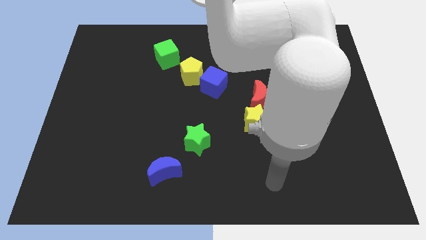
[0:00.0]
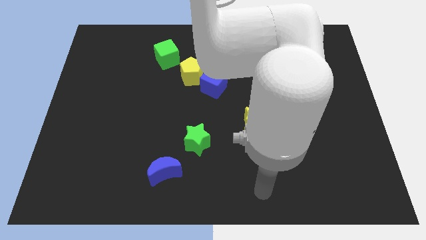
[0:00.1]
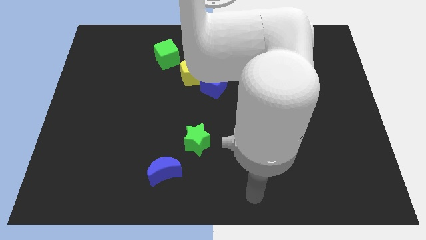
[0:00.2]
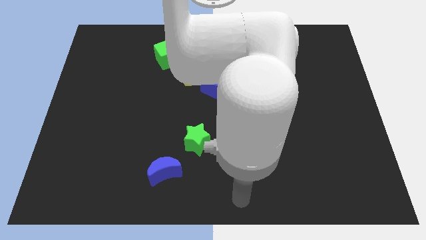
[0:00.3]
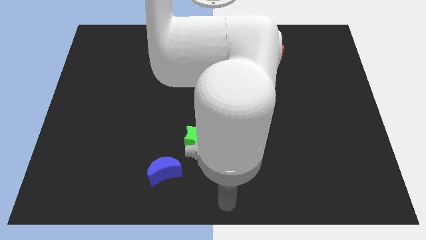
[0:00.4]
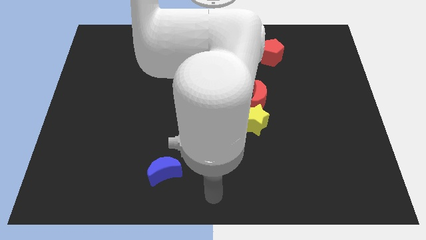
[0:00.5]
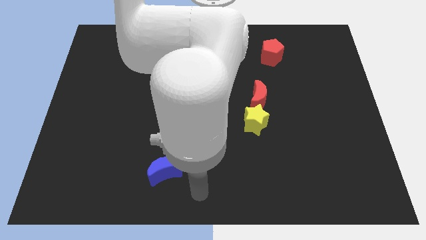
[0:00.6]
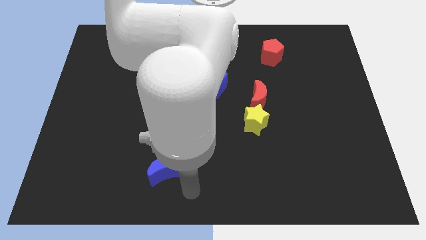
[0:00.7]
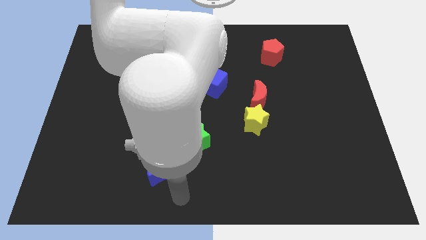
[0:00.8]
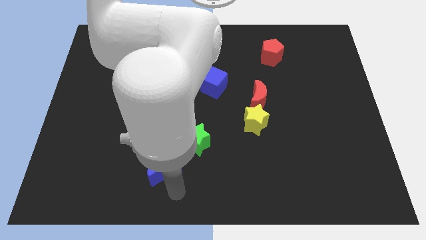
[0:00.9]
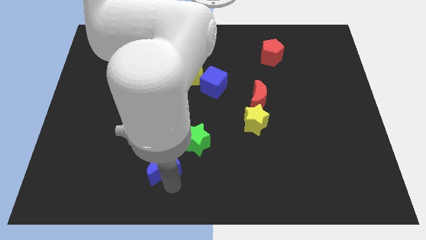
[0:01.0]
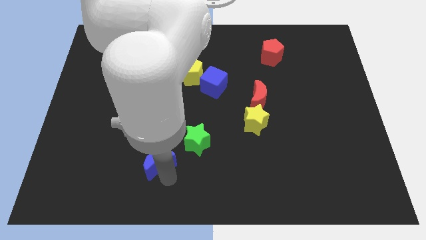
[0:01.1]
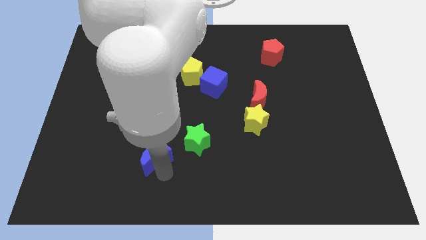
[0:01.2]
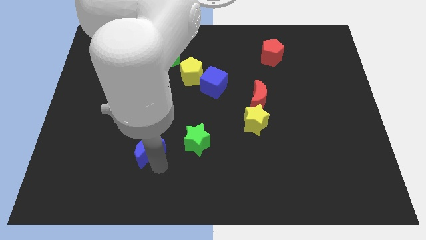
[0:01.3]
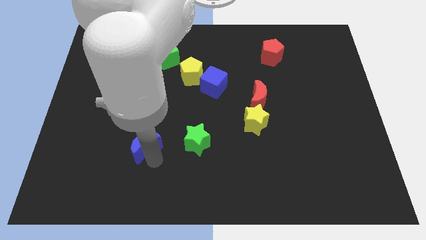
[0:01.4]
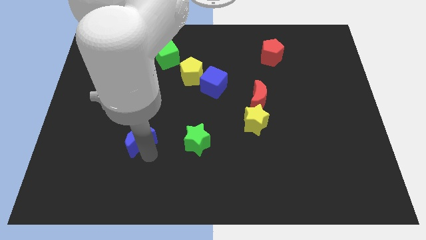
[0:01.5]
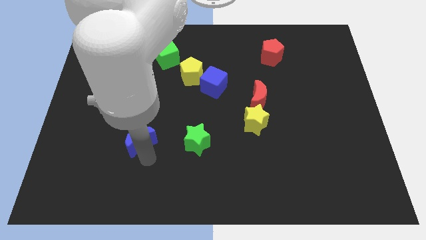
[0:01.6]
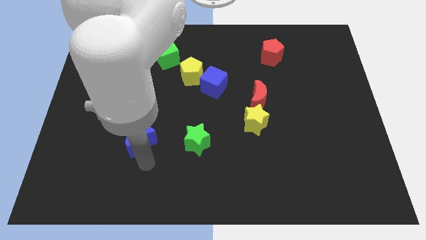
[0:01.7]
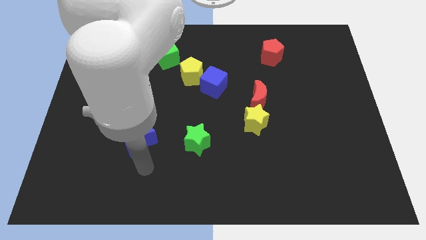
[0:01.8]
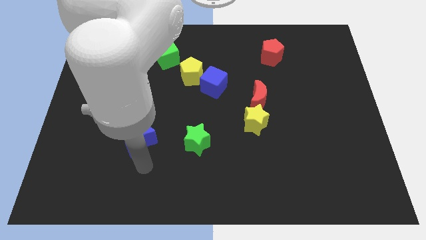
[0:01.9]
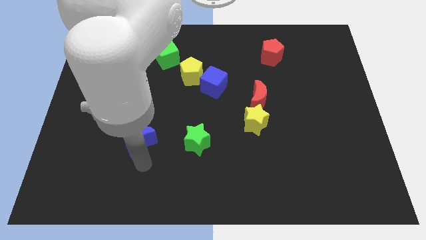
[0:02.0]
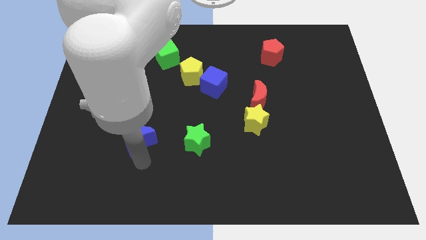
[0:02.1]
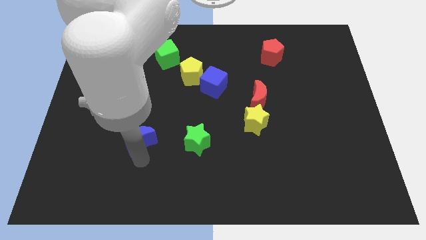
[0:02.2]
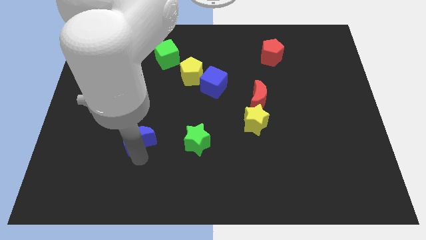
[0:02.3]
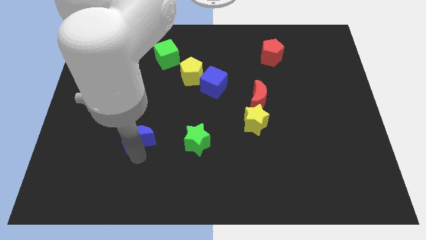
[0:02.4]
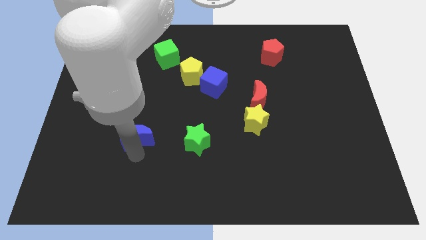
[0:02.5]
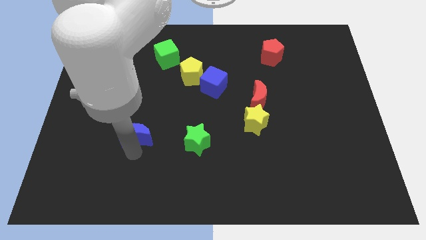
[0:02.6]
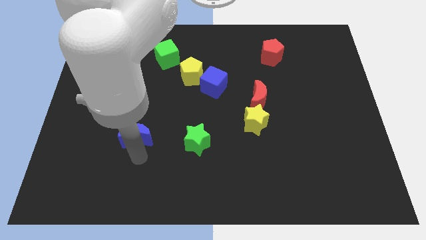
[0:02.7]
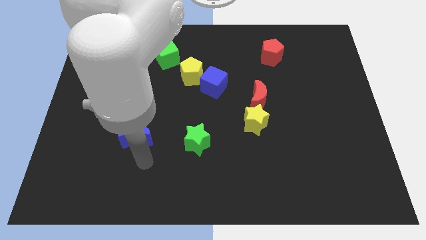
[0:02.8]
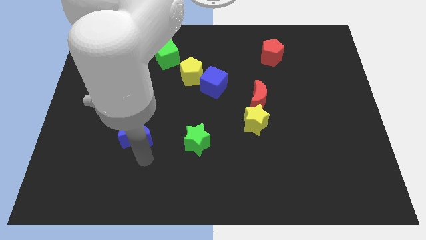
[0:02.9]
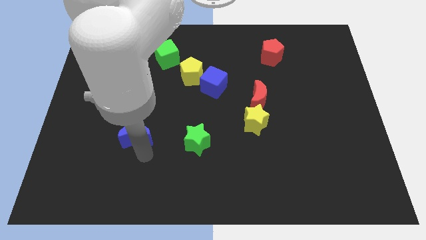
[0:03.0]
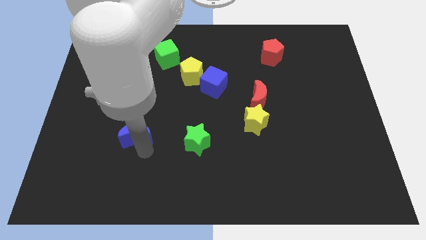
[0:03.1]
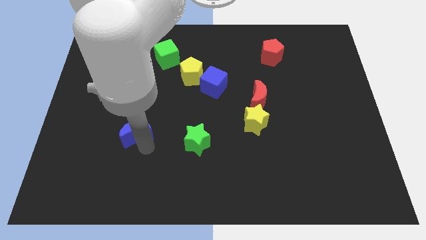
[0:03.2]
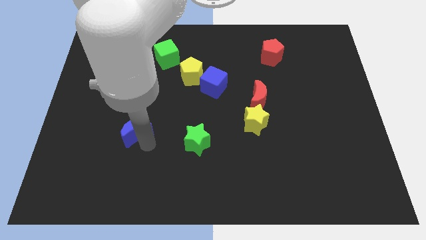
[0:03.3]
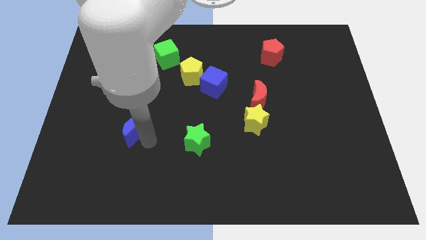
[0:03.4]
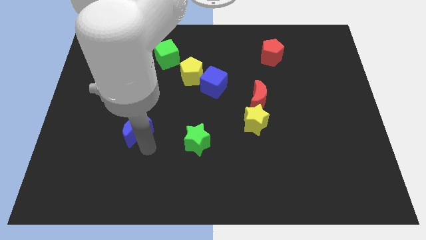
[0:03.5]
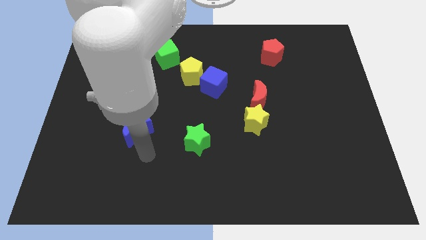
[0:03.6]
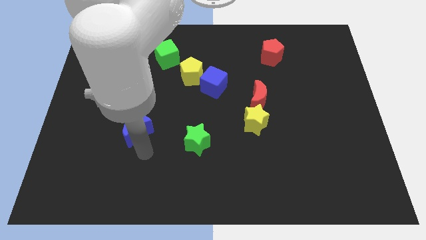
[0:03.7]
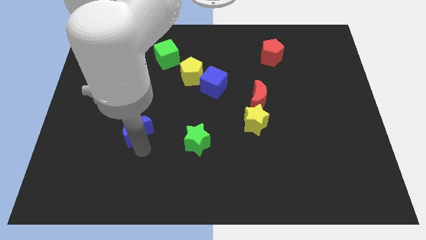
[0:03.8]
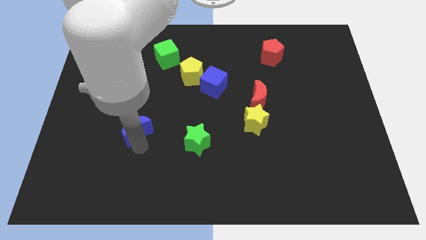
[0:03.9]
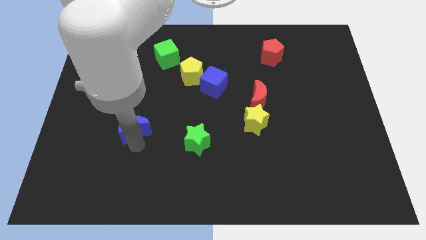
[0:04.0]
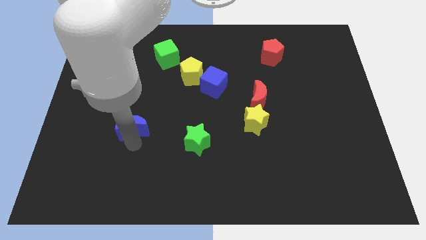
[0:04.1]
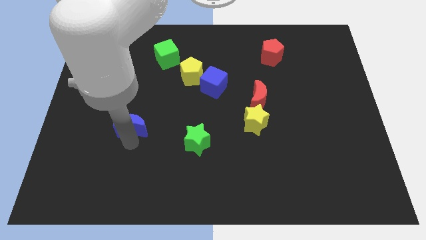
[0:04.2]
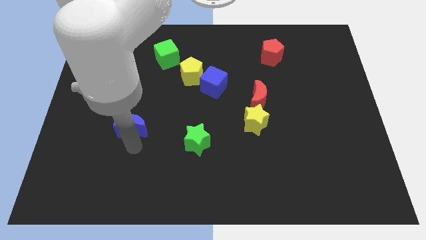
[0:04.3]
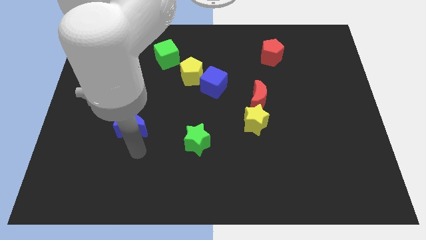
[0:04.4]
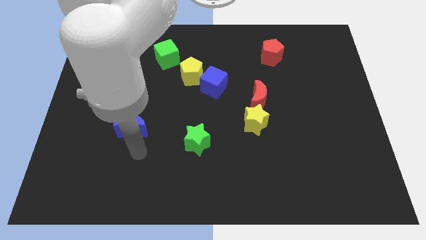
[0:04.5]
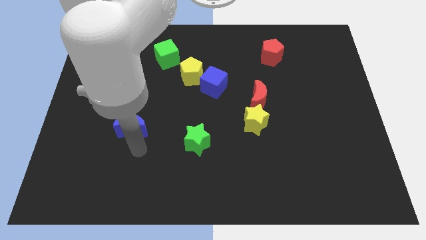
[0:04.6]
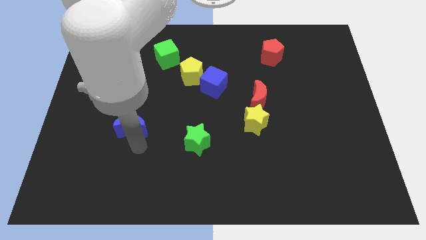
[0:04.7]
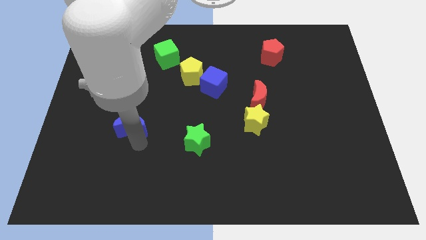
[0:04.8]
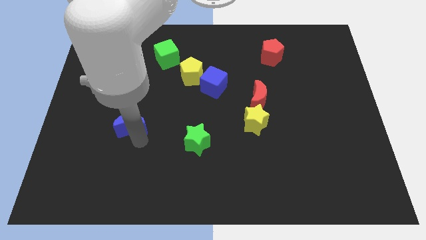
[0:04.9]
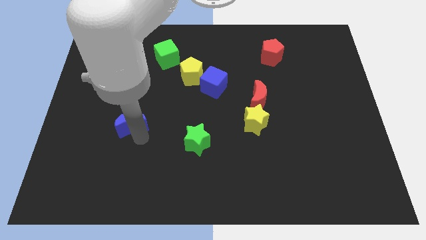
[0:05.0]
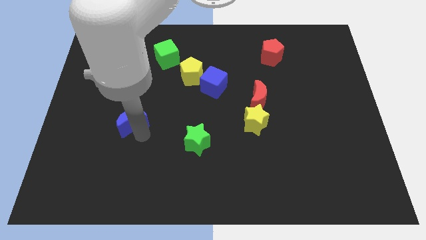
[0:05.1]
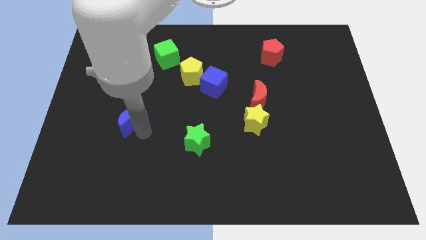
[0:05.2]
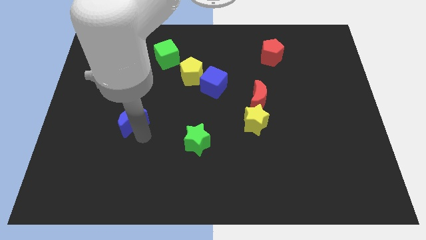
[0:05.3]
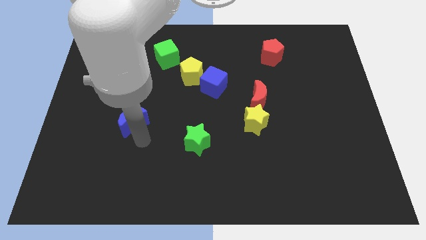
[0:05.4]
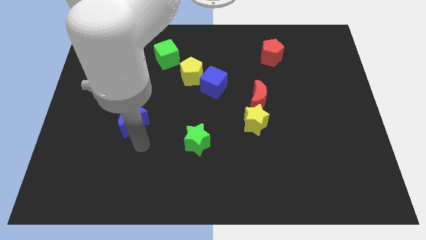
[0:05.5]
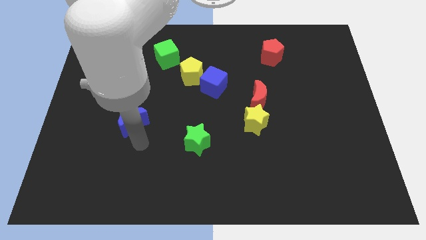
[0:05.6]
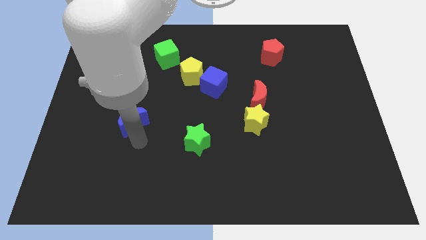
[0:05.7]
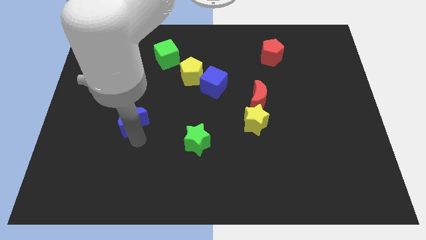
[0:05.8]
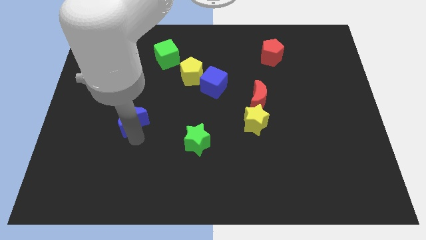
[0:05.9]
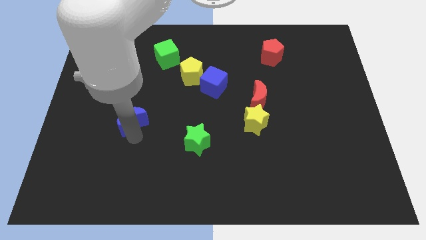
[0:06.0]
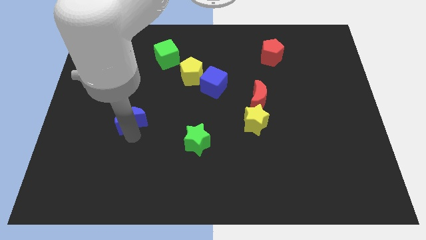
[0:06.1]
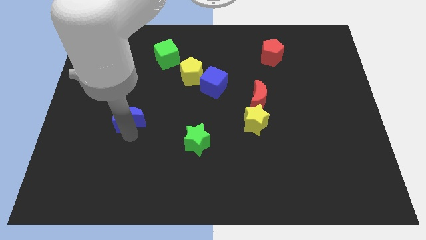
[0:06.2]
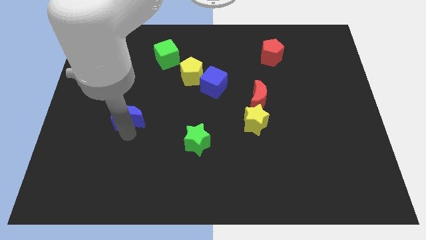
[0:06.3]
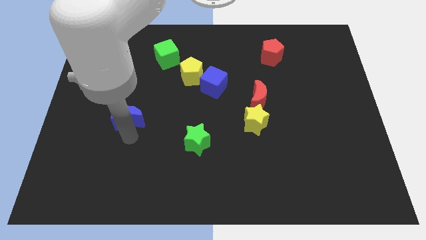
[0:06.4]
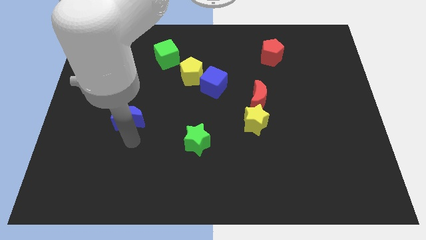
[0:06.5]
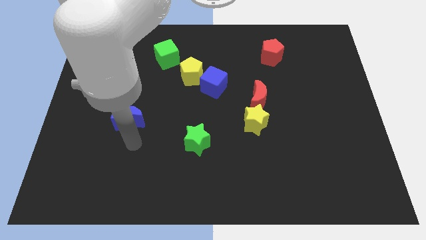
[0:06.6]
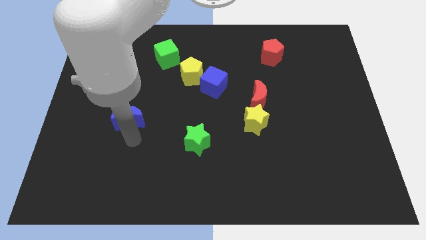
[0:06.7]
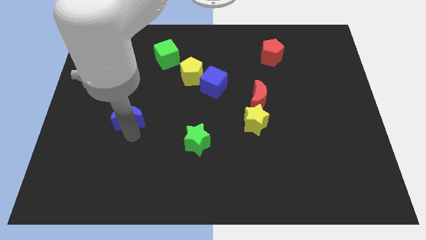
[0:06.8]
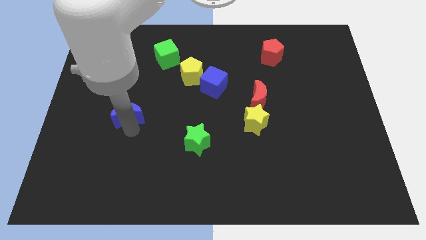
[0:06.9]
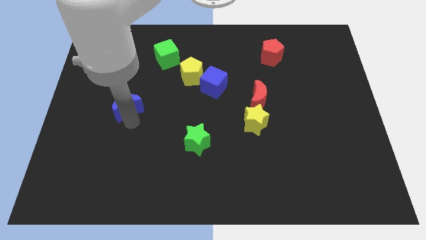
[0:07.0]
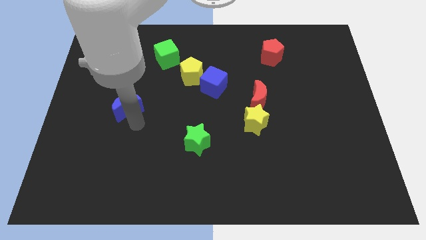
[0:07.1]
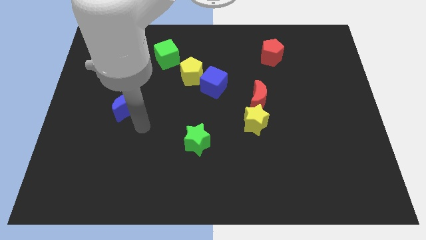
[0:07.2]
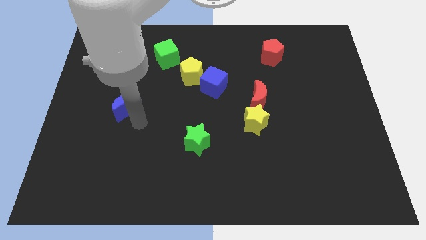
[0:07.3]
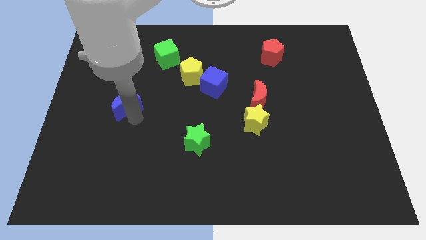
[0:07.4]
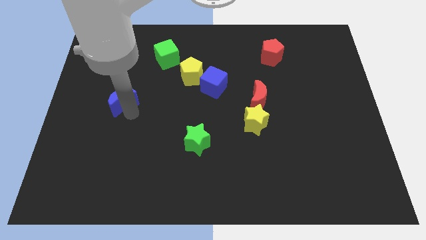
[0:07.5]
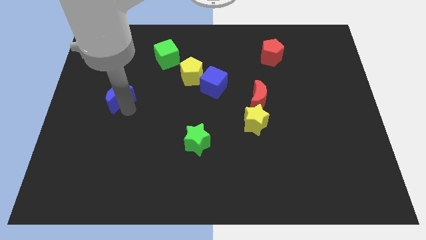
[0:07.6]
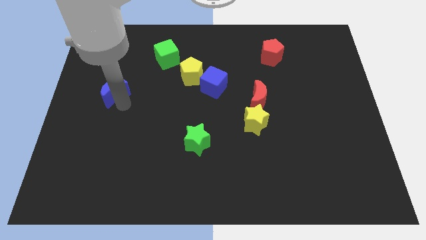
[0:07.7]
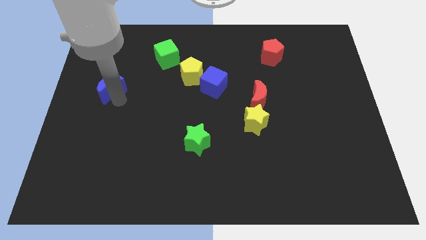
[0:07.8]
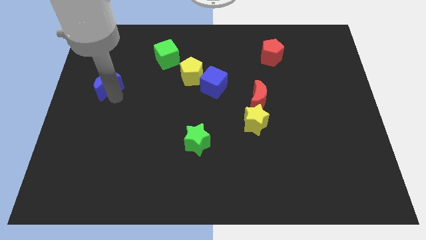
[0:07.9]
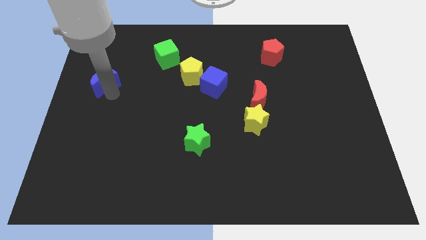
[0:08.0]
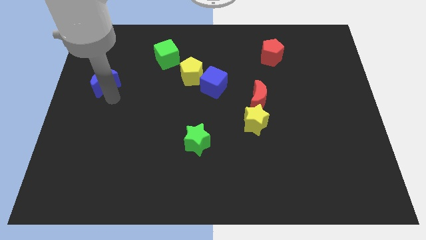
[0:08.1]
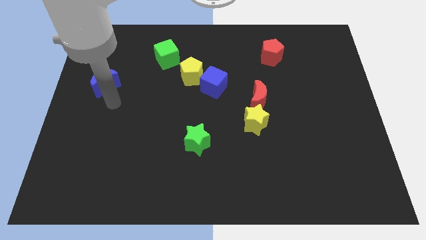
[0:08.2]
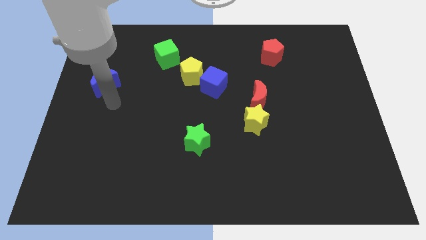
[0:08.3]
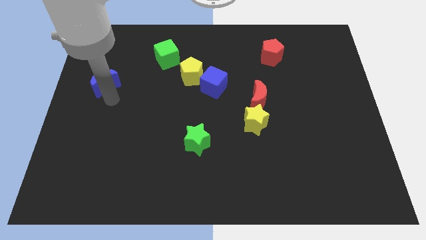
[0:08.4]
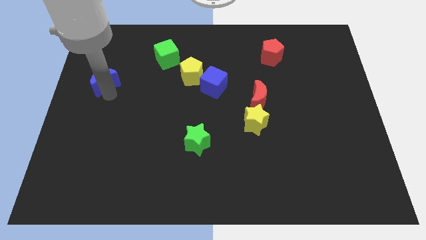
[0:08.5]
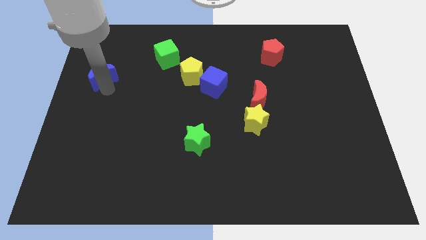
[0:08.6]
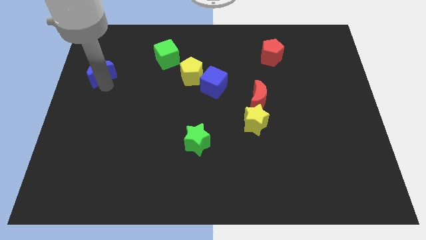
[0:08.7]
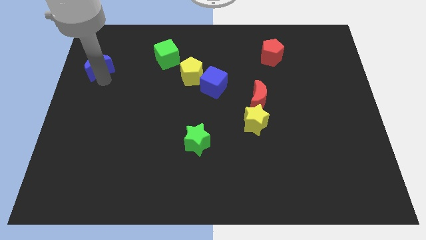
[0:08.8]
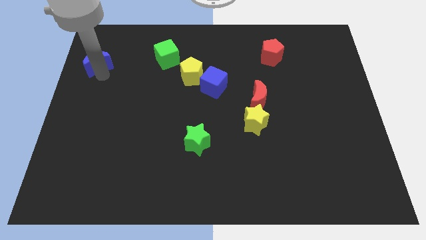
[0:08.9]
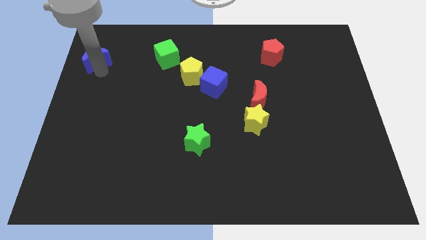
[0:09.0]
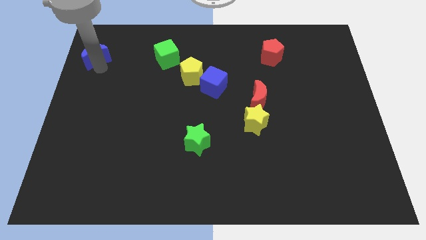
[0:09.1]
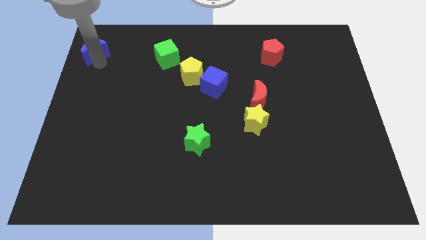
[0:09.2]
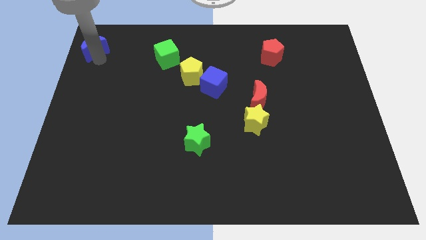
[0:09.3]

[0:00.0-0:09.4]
put the blue moon to the top left
